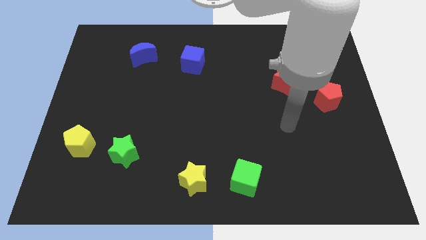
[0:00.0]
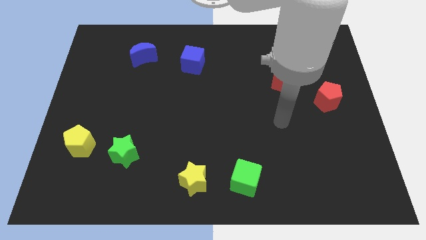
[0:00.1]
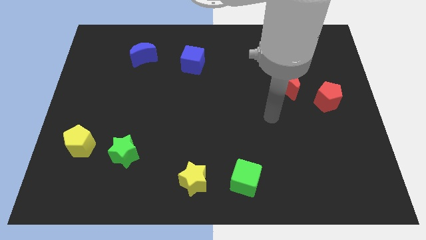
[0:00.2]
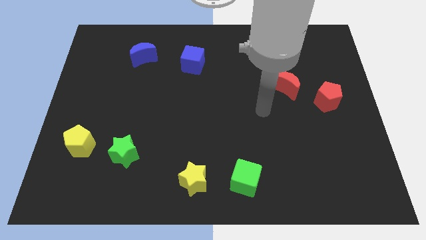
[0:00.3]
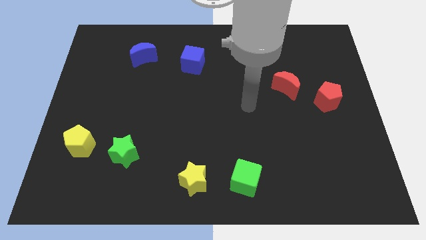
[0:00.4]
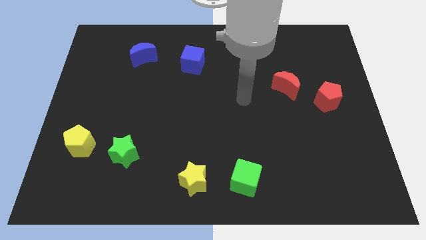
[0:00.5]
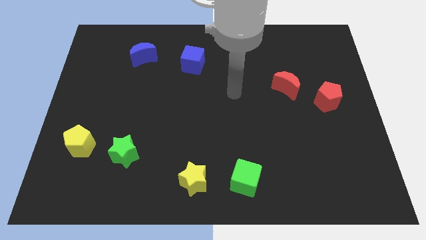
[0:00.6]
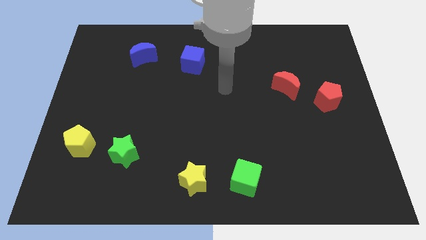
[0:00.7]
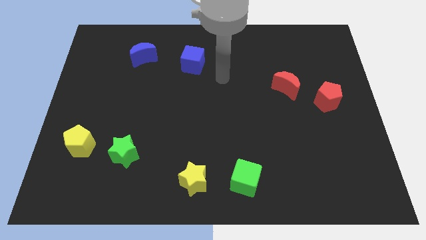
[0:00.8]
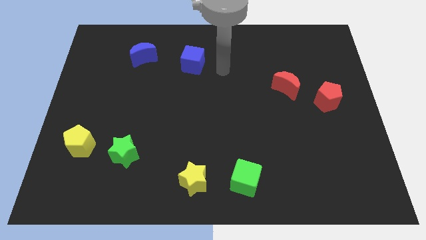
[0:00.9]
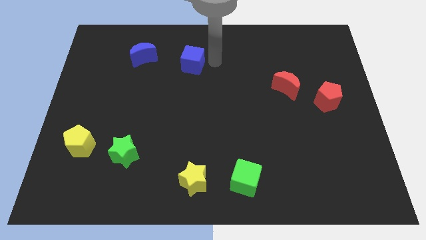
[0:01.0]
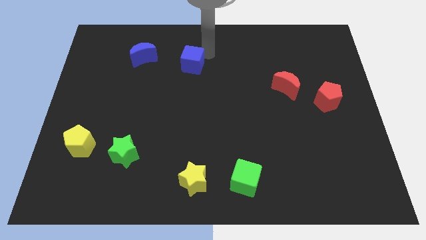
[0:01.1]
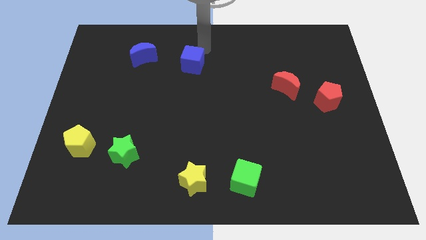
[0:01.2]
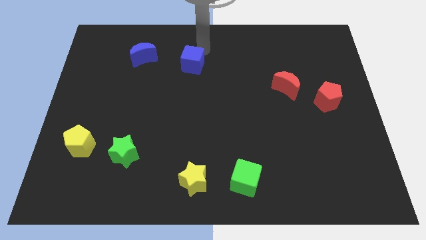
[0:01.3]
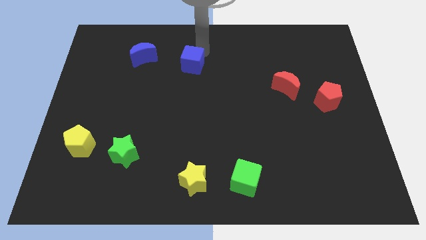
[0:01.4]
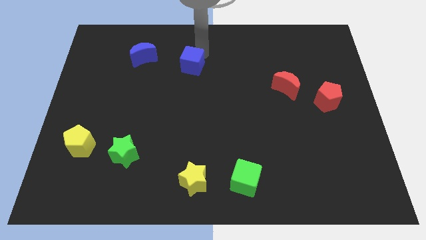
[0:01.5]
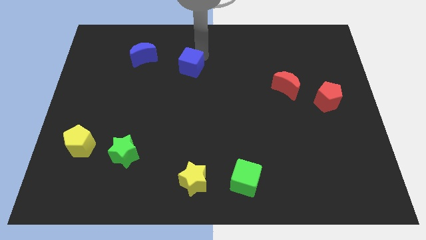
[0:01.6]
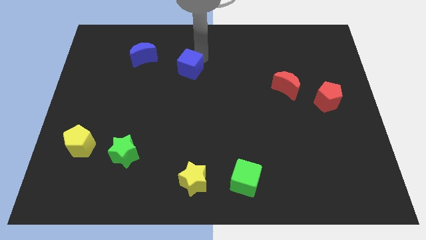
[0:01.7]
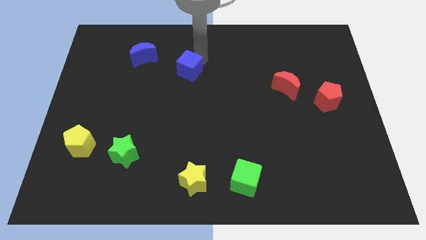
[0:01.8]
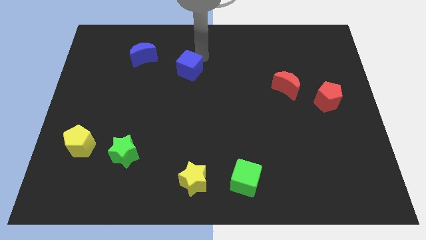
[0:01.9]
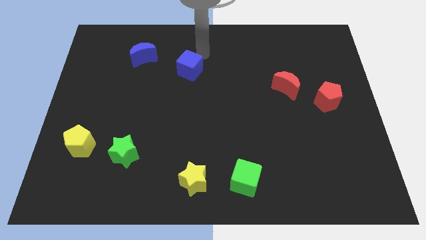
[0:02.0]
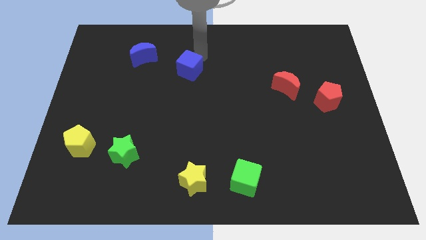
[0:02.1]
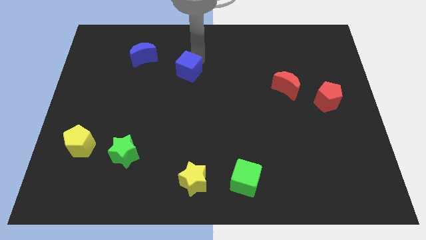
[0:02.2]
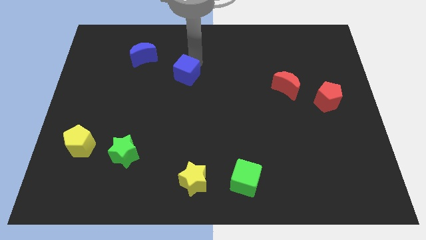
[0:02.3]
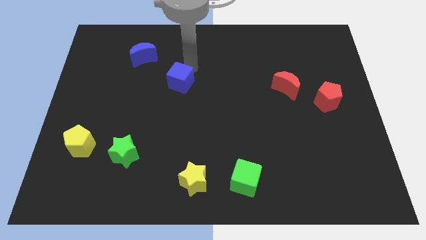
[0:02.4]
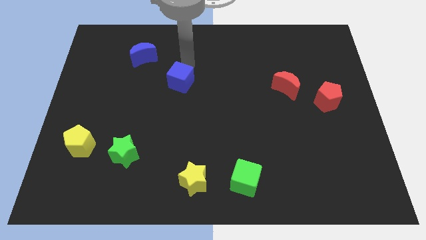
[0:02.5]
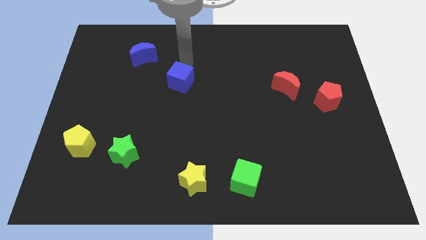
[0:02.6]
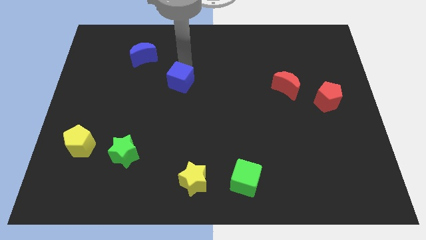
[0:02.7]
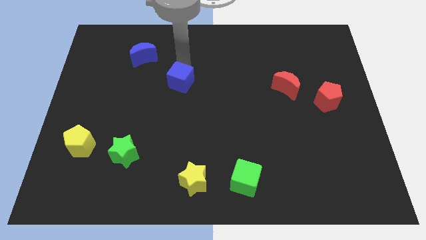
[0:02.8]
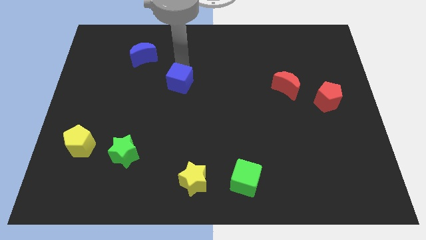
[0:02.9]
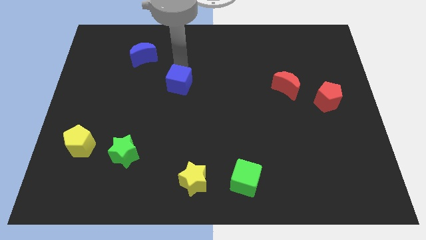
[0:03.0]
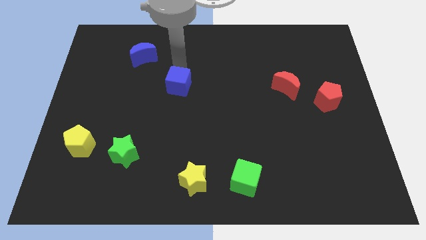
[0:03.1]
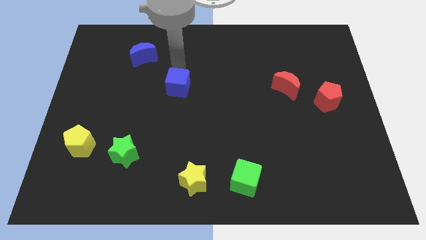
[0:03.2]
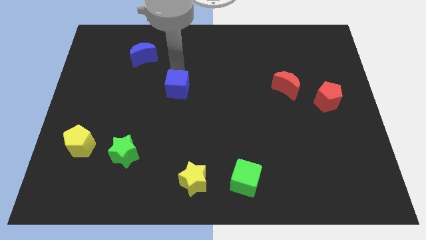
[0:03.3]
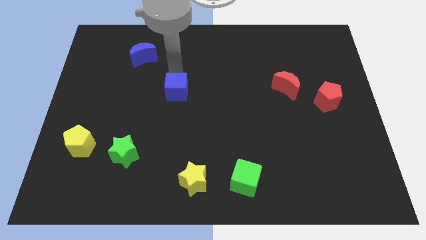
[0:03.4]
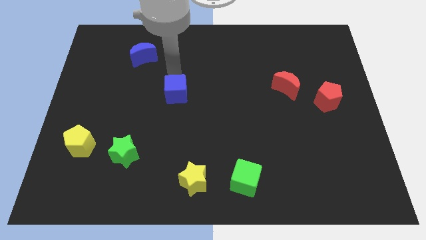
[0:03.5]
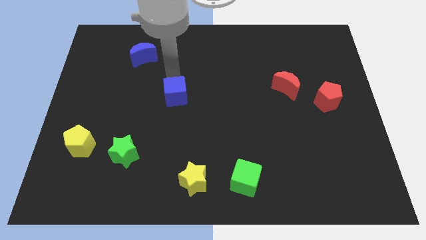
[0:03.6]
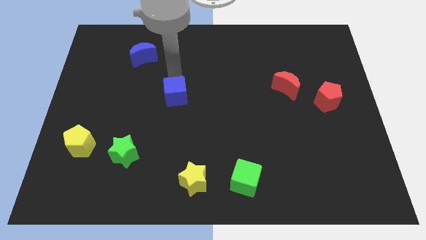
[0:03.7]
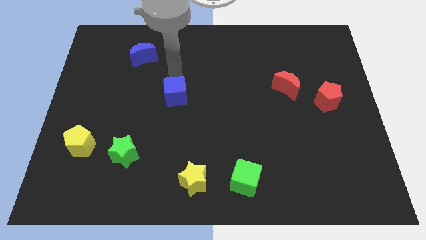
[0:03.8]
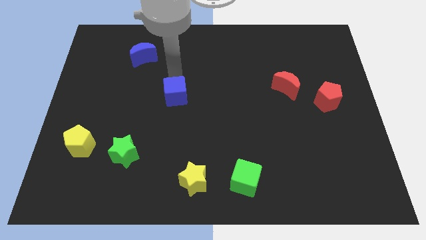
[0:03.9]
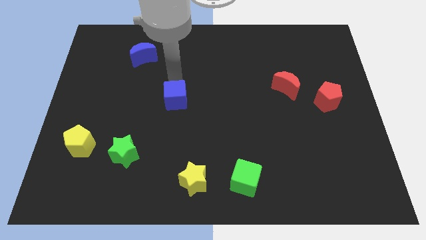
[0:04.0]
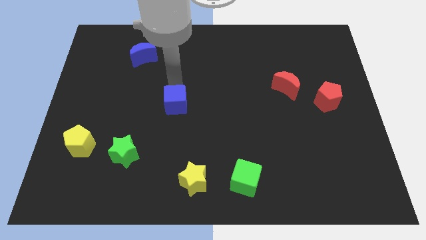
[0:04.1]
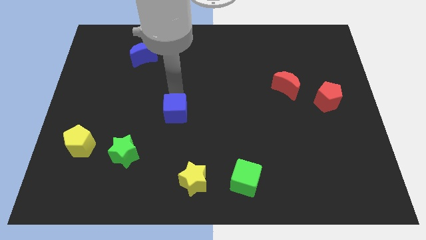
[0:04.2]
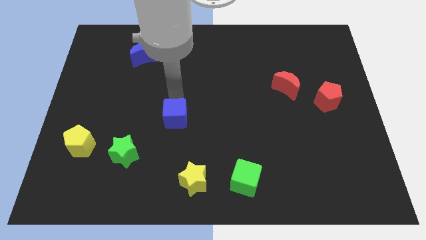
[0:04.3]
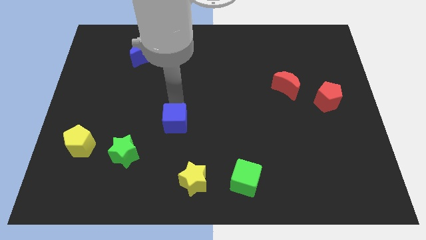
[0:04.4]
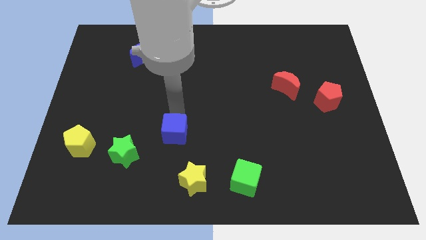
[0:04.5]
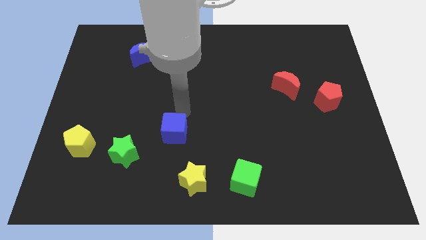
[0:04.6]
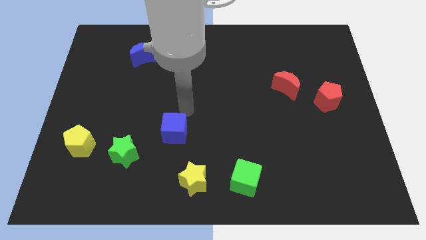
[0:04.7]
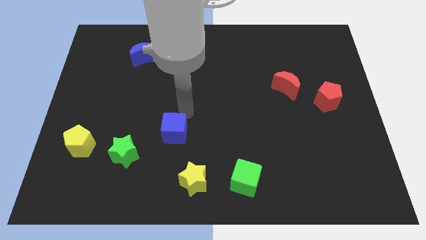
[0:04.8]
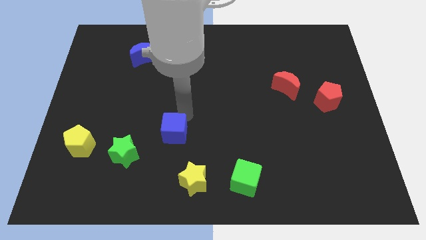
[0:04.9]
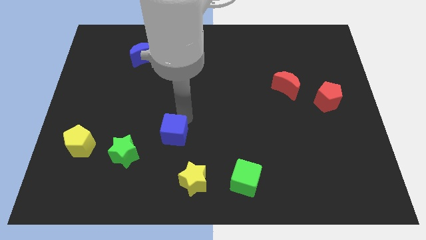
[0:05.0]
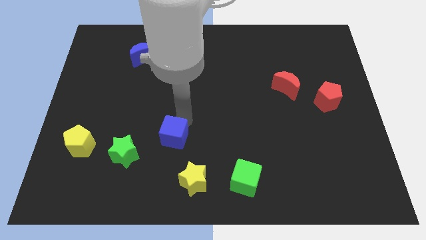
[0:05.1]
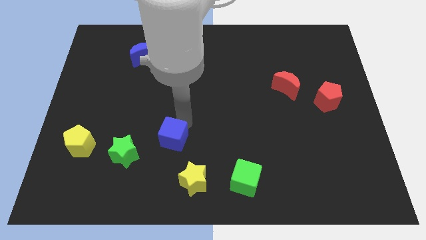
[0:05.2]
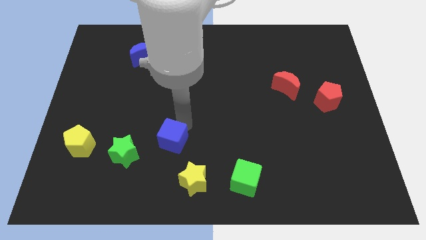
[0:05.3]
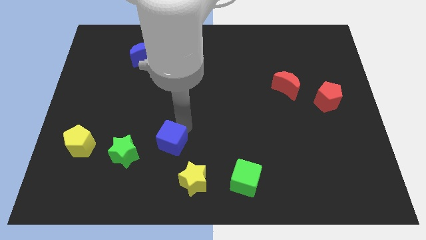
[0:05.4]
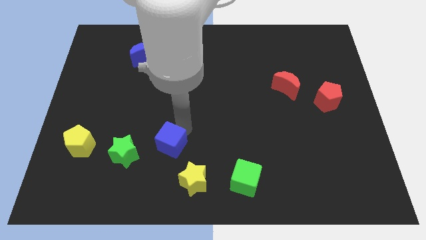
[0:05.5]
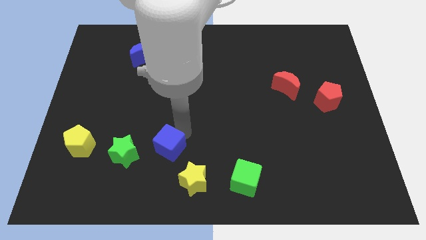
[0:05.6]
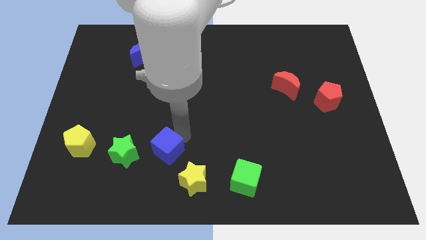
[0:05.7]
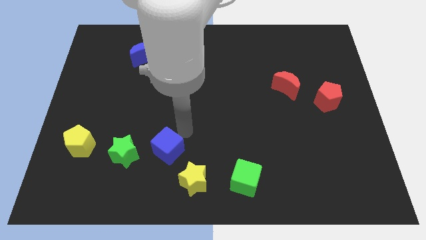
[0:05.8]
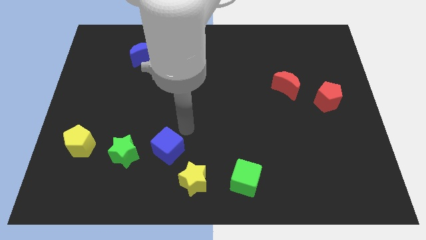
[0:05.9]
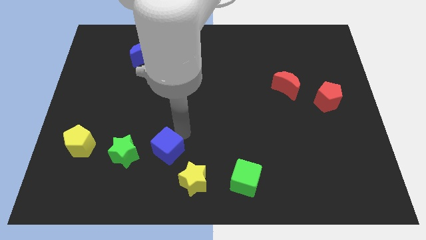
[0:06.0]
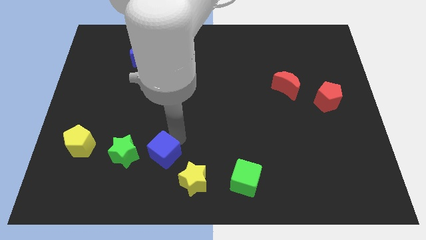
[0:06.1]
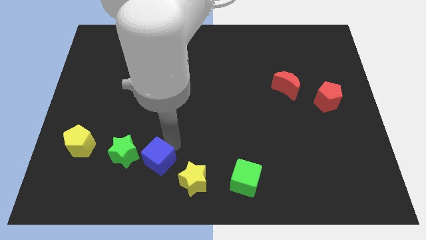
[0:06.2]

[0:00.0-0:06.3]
slide the blue cube to the bottom right of the green star

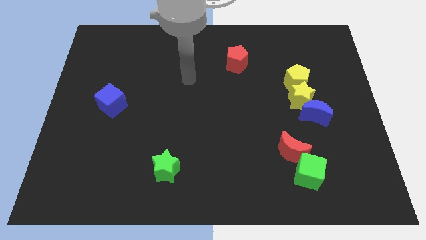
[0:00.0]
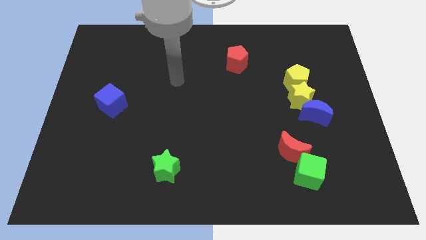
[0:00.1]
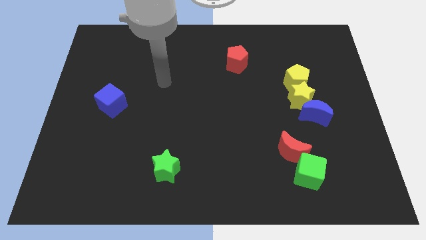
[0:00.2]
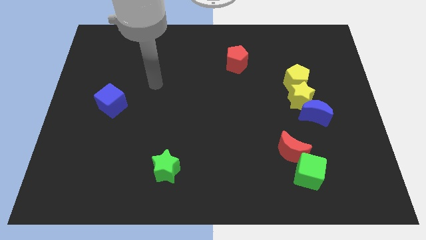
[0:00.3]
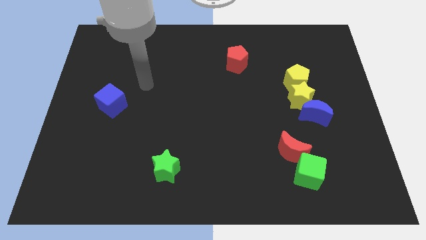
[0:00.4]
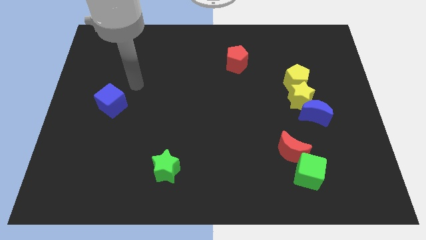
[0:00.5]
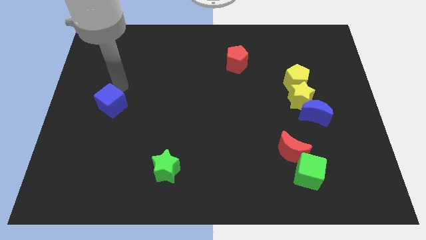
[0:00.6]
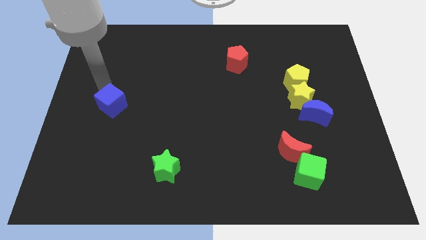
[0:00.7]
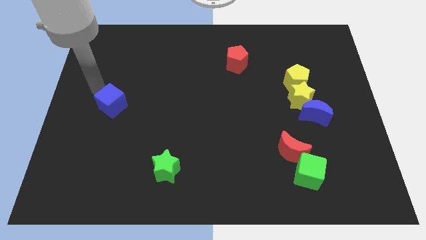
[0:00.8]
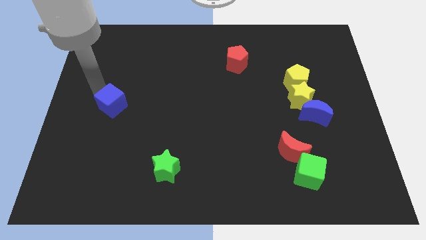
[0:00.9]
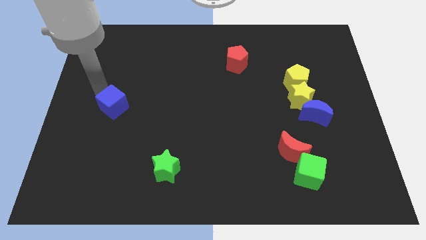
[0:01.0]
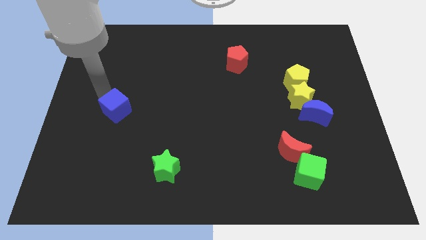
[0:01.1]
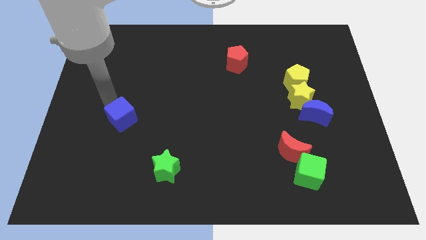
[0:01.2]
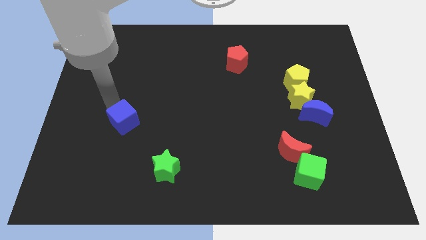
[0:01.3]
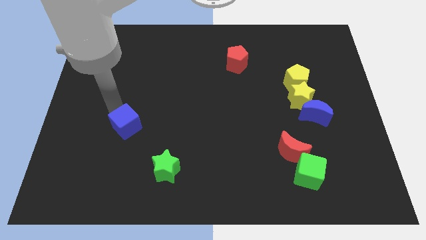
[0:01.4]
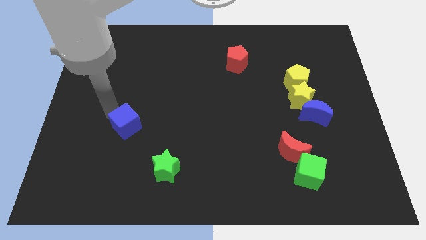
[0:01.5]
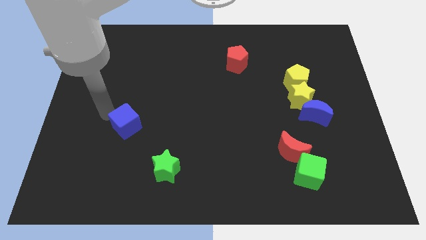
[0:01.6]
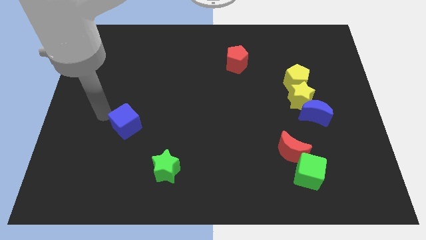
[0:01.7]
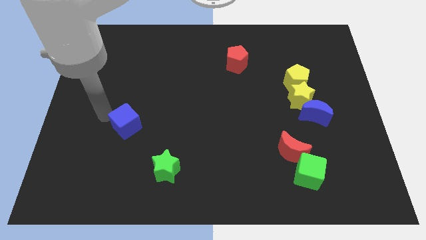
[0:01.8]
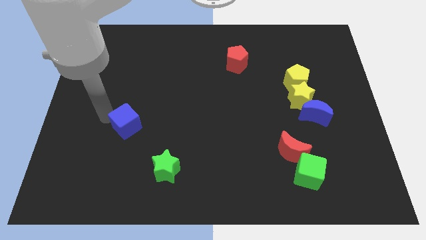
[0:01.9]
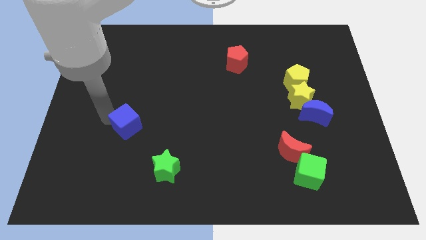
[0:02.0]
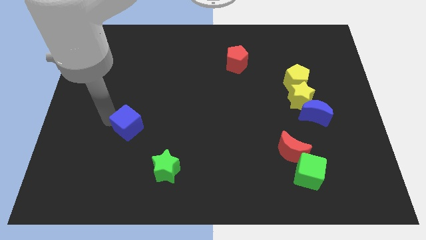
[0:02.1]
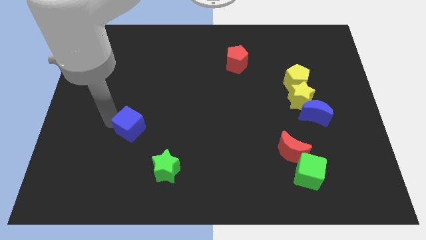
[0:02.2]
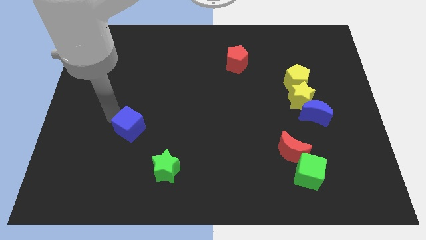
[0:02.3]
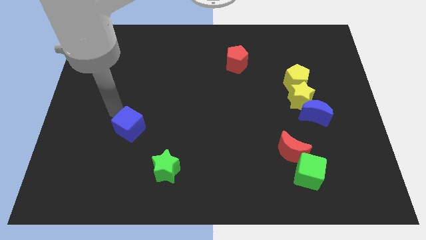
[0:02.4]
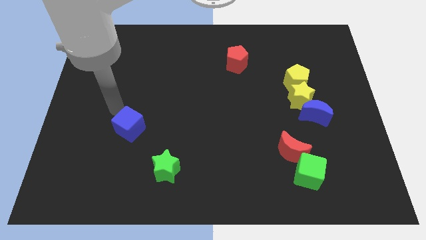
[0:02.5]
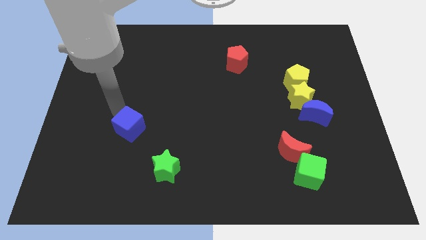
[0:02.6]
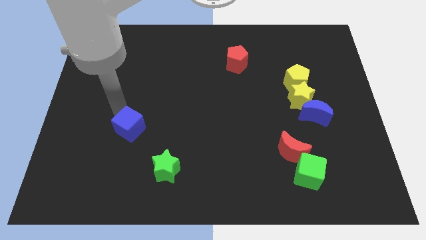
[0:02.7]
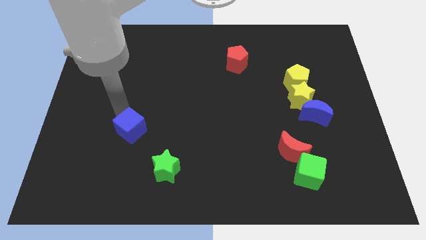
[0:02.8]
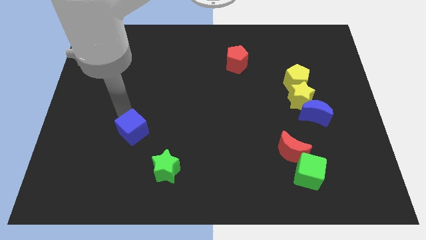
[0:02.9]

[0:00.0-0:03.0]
put the blue cube to the top left of the green star
